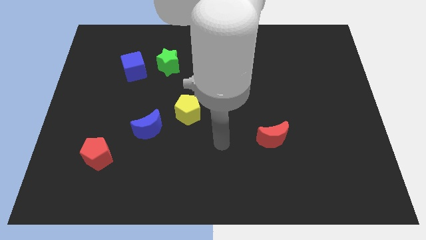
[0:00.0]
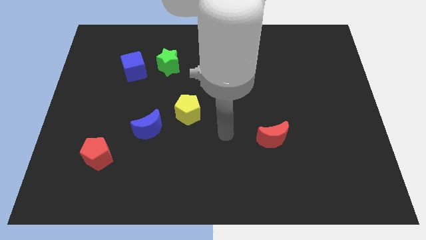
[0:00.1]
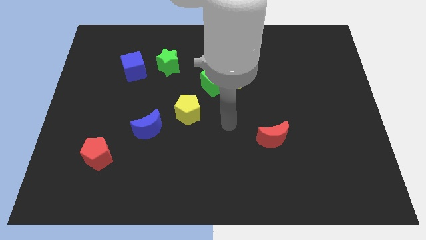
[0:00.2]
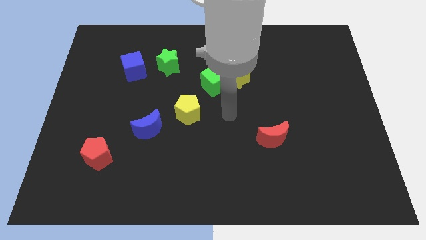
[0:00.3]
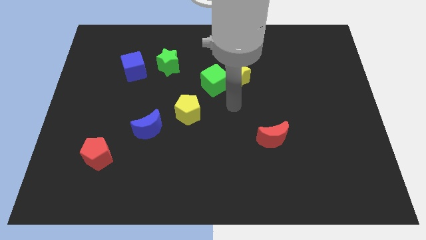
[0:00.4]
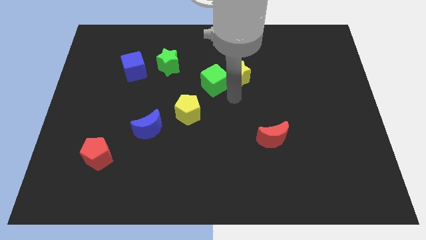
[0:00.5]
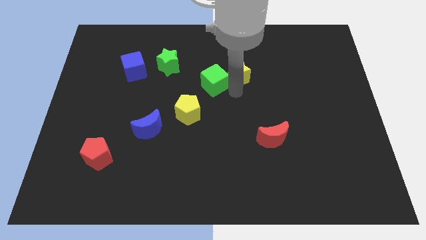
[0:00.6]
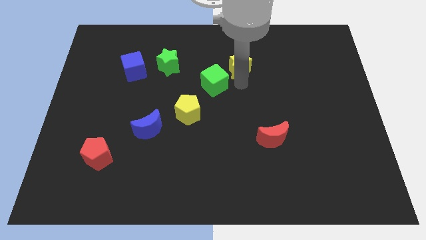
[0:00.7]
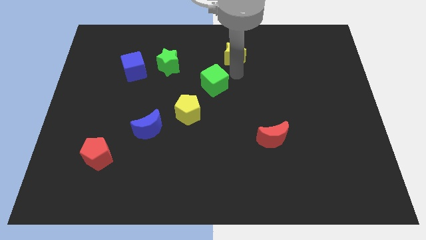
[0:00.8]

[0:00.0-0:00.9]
separate the green cube from the yellow star

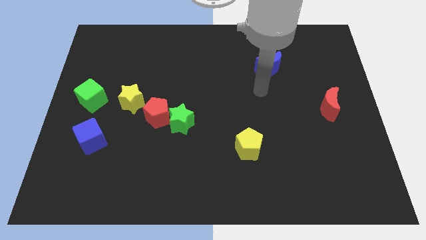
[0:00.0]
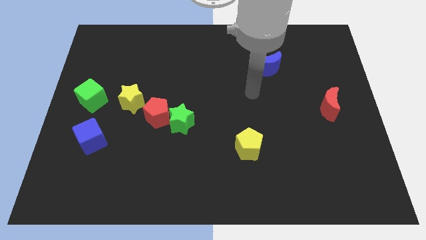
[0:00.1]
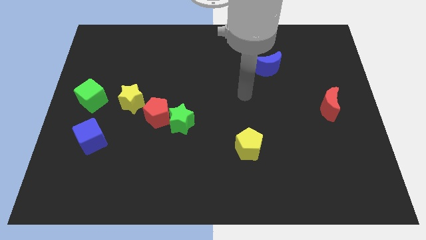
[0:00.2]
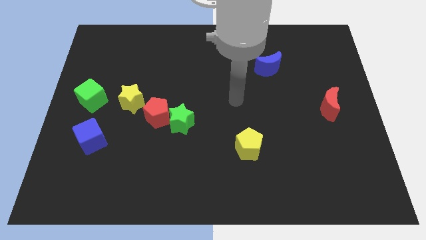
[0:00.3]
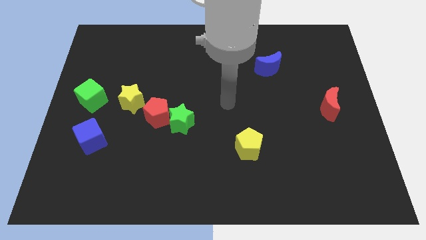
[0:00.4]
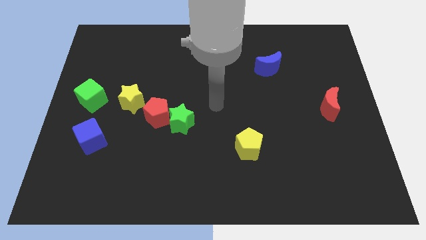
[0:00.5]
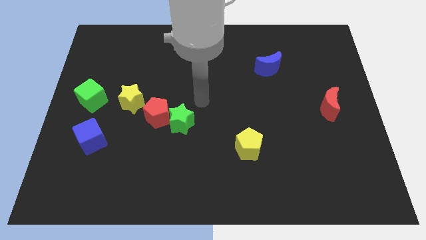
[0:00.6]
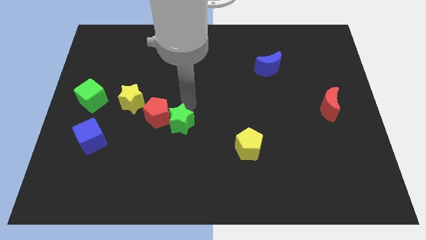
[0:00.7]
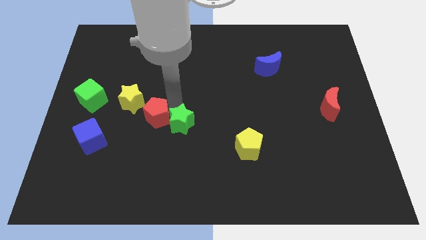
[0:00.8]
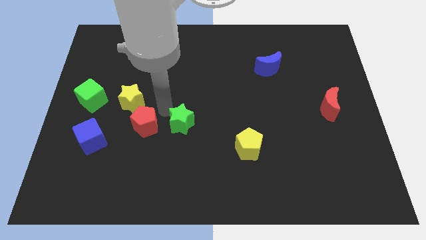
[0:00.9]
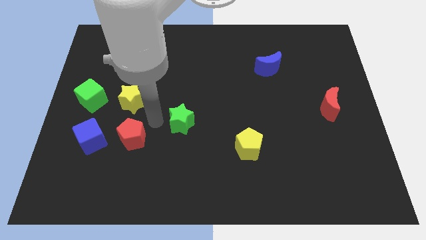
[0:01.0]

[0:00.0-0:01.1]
separate the green star from the red pentagon

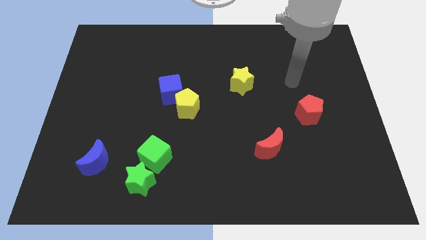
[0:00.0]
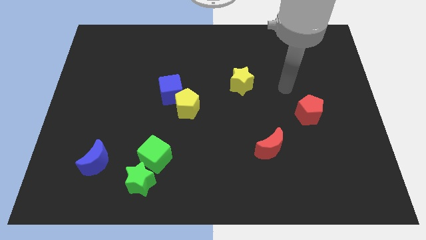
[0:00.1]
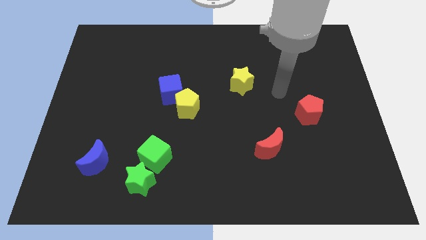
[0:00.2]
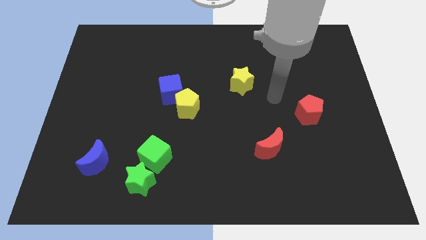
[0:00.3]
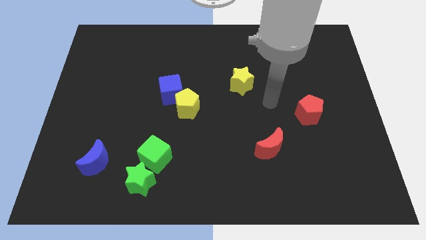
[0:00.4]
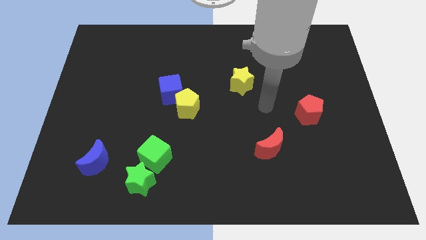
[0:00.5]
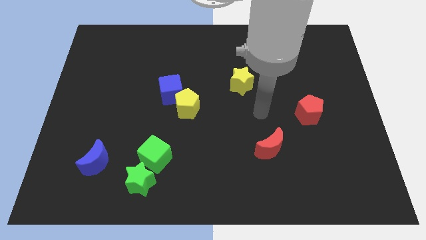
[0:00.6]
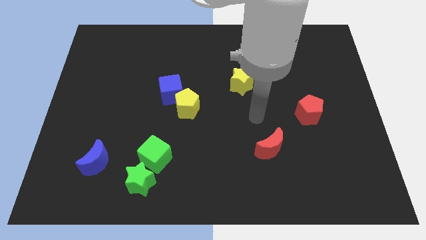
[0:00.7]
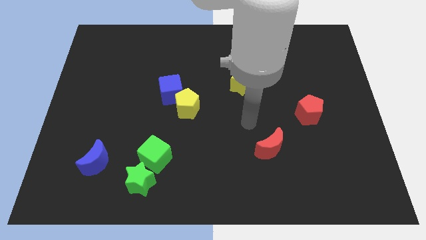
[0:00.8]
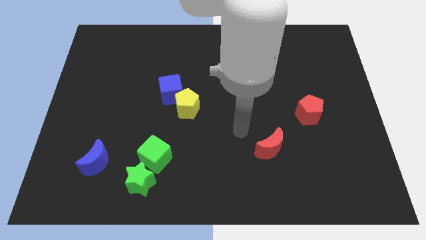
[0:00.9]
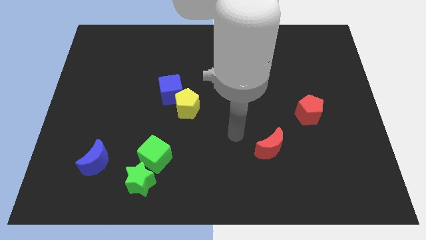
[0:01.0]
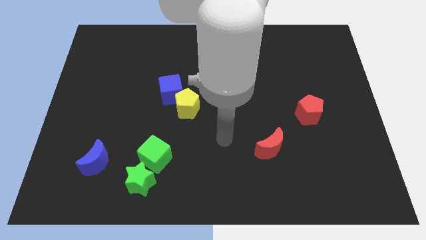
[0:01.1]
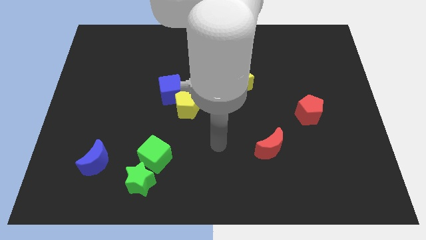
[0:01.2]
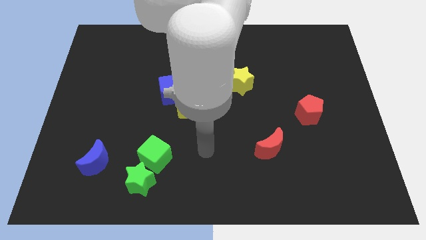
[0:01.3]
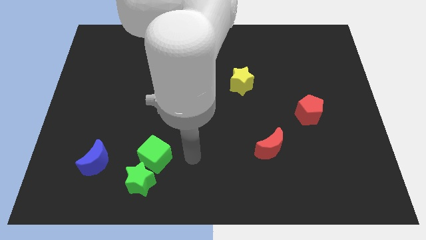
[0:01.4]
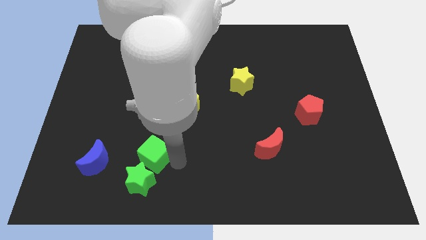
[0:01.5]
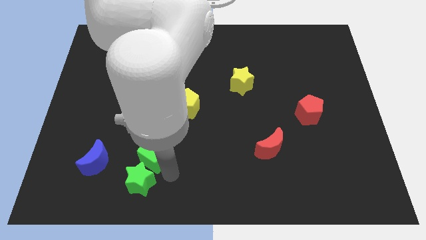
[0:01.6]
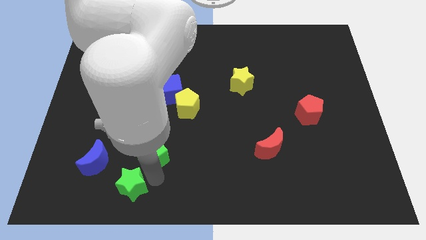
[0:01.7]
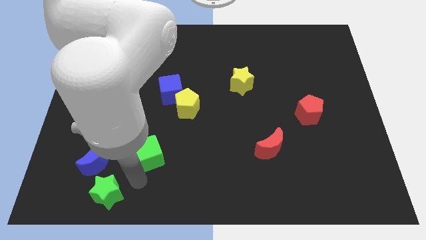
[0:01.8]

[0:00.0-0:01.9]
pull the green cube apart from the green star

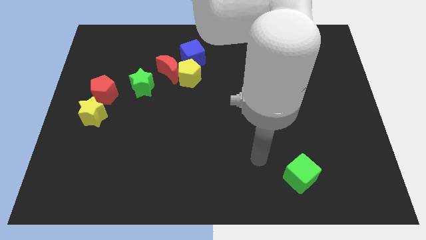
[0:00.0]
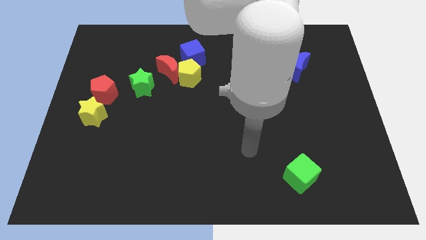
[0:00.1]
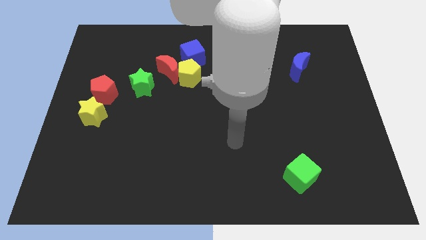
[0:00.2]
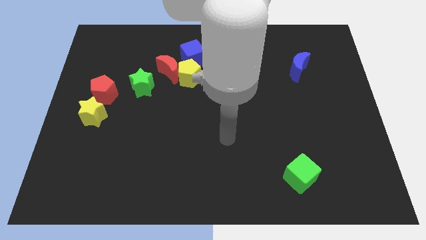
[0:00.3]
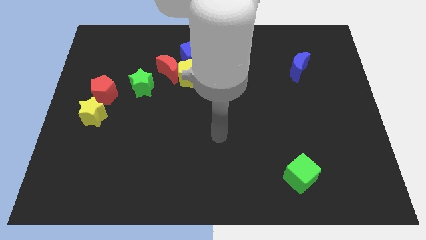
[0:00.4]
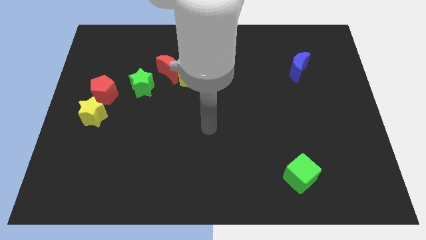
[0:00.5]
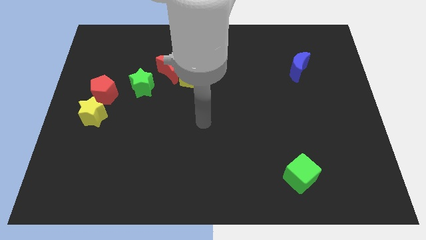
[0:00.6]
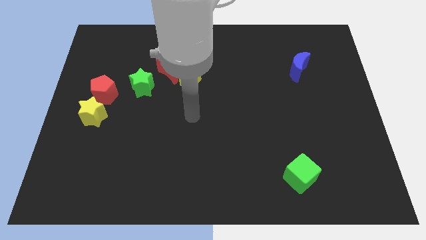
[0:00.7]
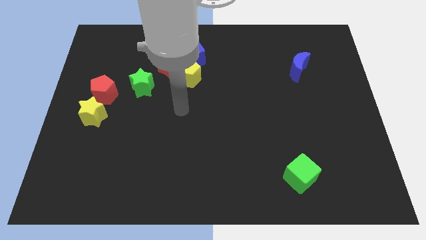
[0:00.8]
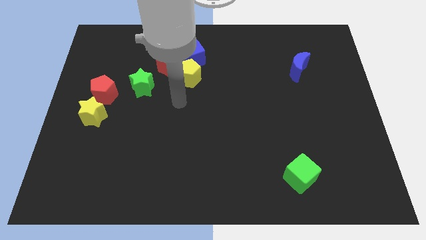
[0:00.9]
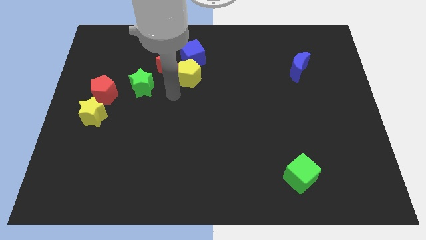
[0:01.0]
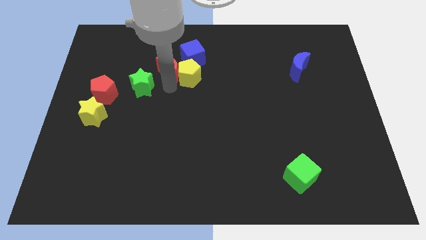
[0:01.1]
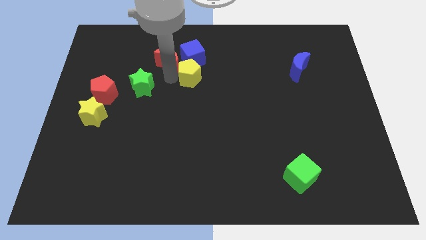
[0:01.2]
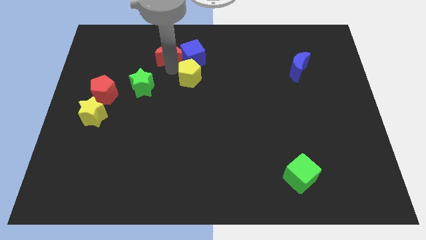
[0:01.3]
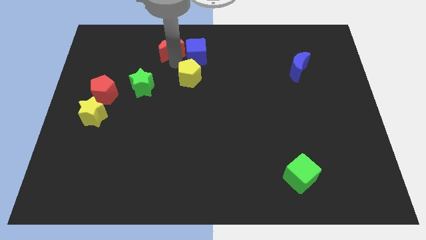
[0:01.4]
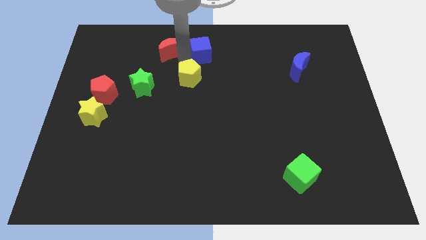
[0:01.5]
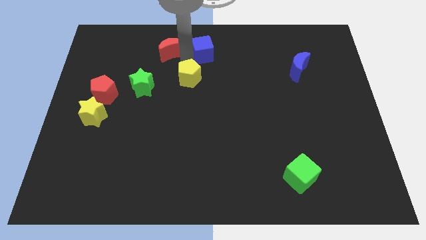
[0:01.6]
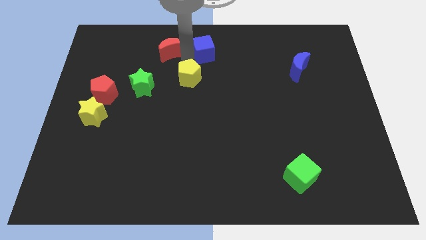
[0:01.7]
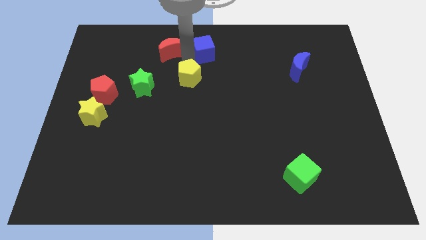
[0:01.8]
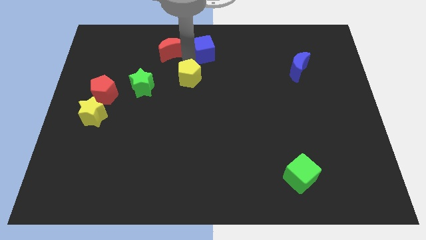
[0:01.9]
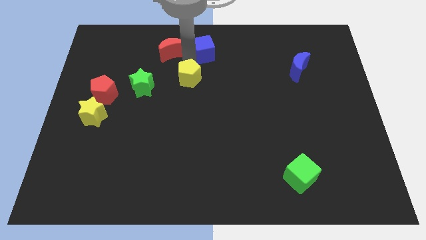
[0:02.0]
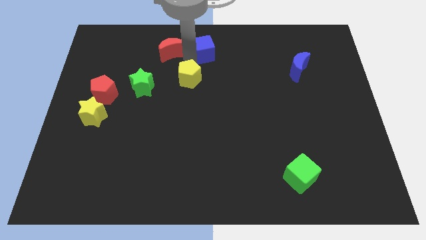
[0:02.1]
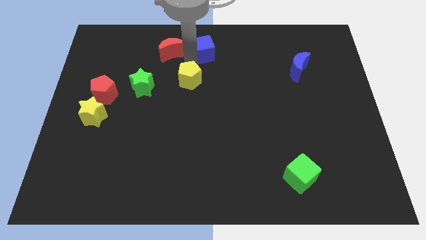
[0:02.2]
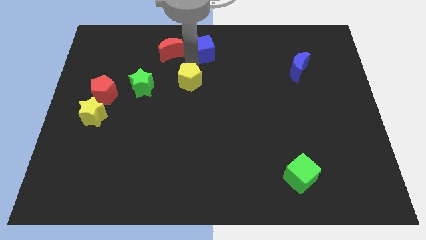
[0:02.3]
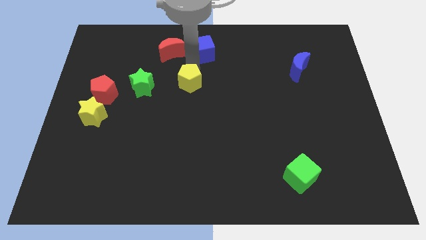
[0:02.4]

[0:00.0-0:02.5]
separate the yellow pentagon from the red moon and blue cube

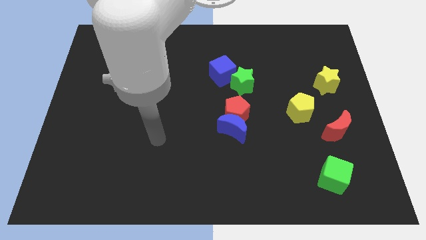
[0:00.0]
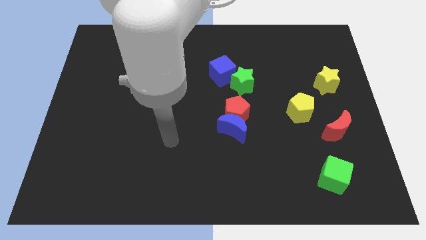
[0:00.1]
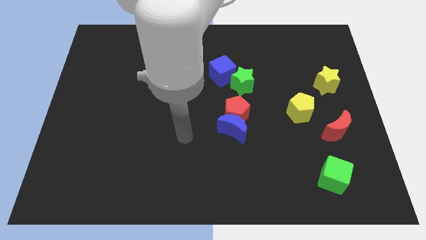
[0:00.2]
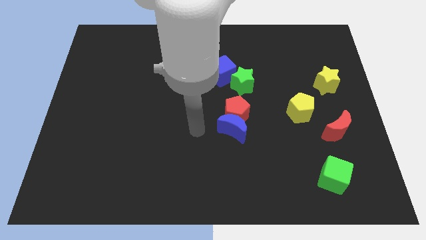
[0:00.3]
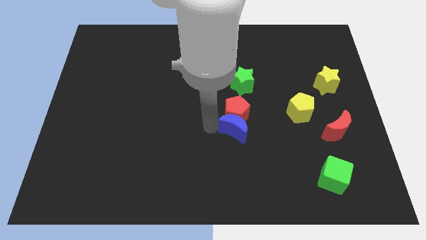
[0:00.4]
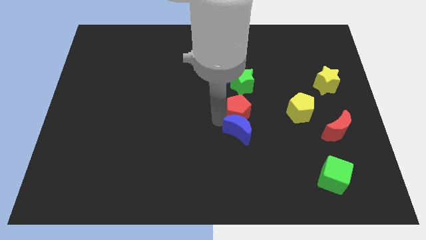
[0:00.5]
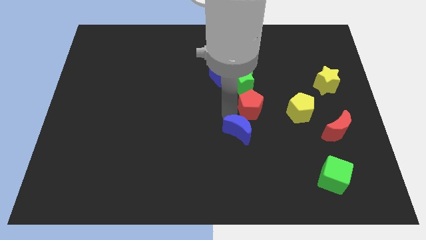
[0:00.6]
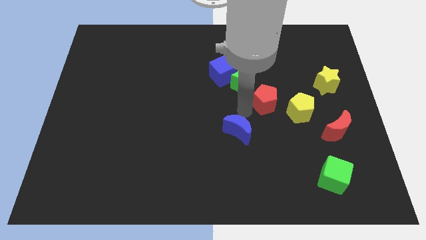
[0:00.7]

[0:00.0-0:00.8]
move the blue moon away from the red pentagon

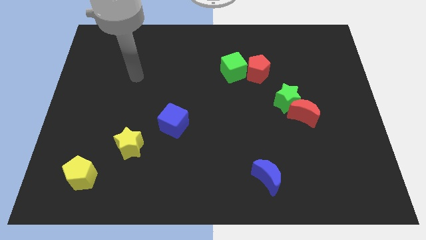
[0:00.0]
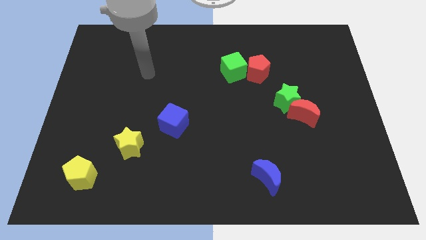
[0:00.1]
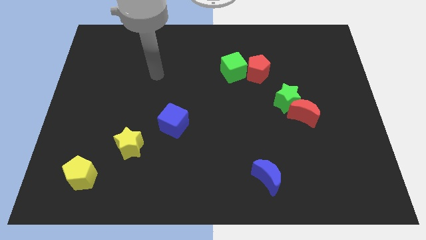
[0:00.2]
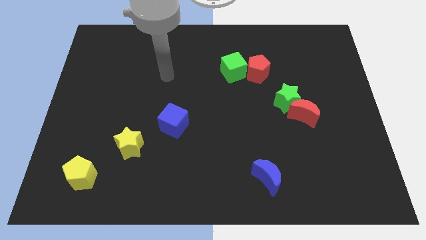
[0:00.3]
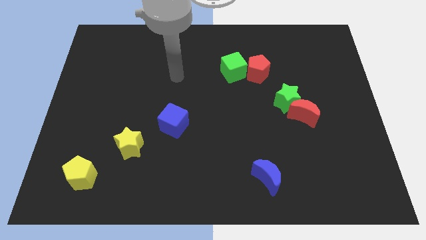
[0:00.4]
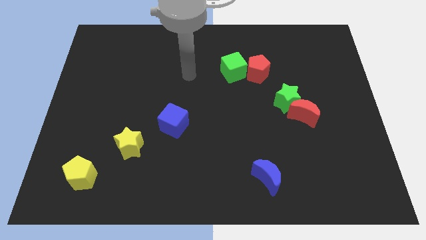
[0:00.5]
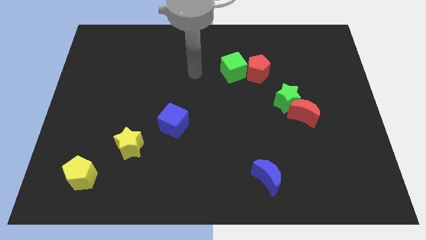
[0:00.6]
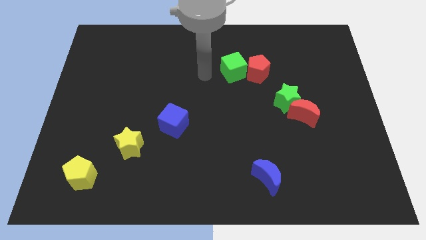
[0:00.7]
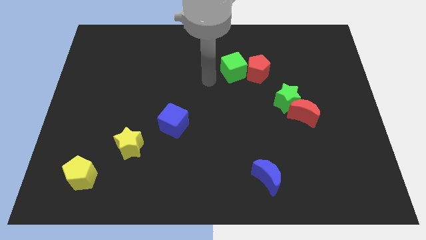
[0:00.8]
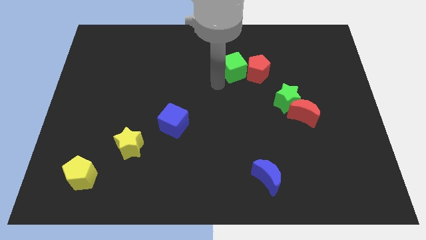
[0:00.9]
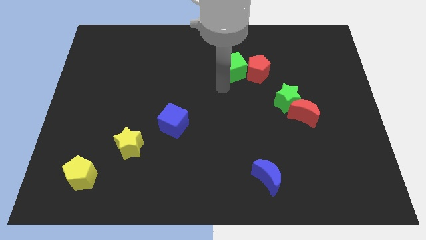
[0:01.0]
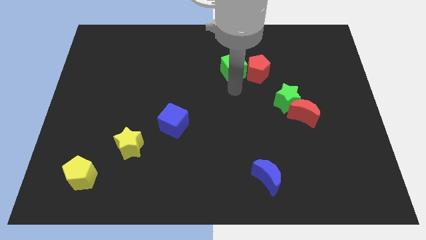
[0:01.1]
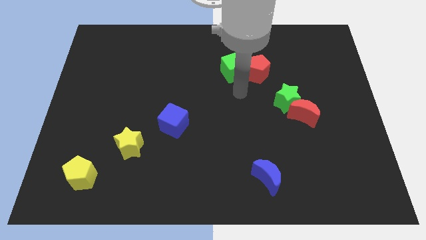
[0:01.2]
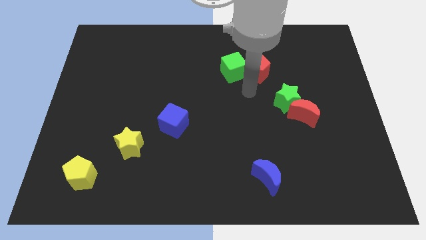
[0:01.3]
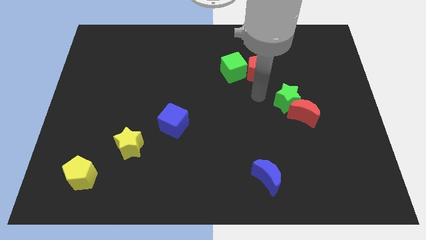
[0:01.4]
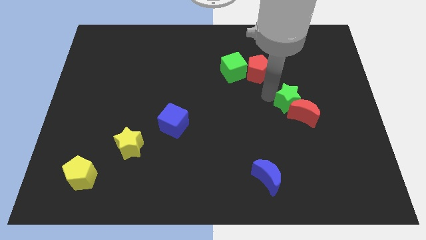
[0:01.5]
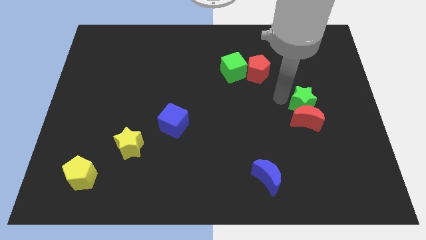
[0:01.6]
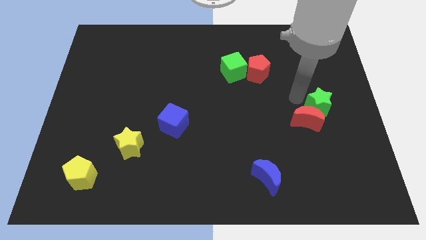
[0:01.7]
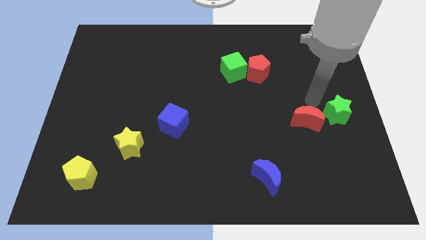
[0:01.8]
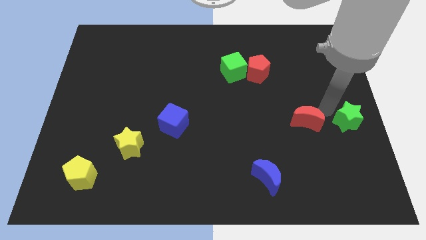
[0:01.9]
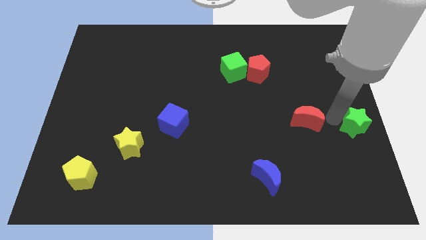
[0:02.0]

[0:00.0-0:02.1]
separate the red moon from the green star
